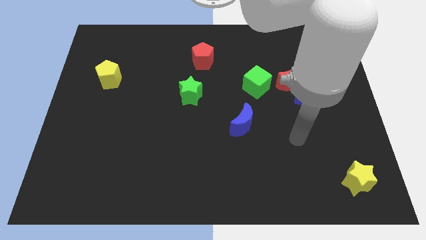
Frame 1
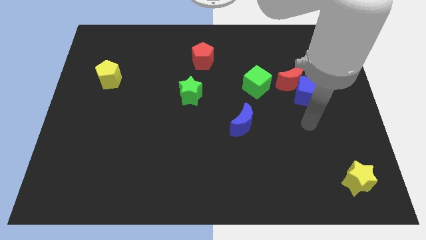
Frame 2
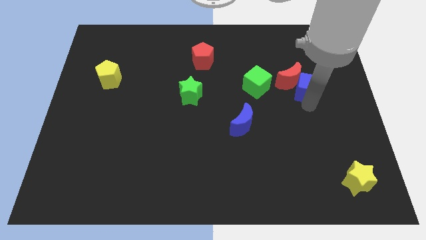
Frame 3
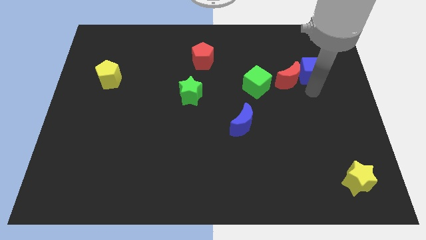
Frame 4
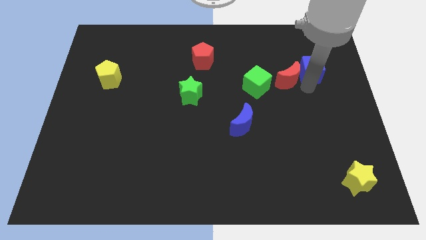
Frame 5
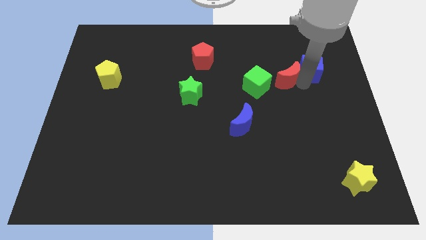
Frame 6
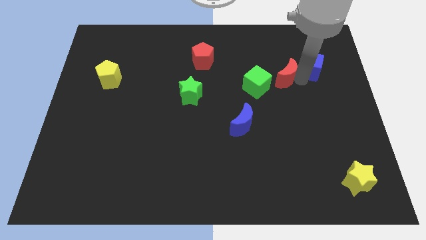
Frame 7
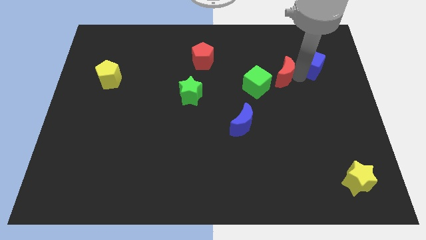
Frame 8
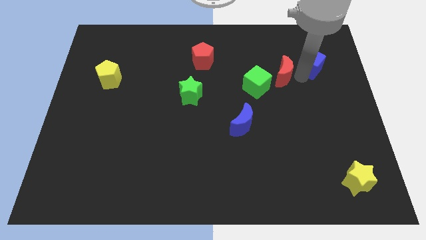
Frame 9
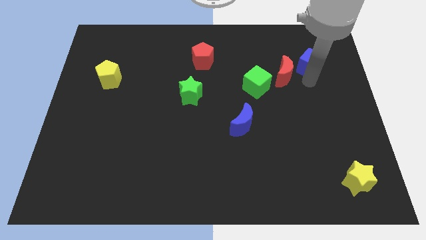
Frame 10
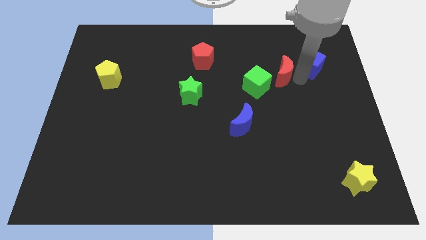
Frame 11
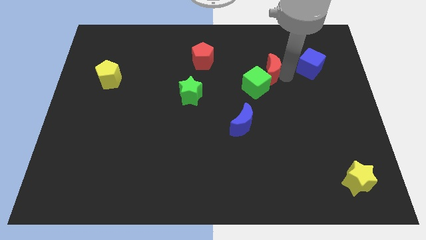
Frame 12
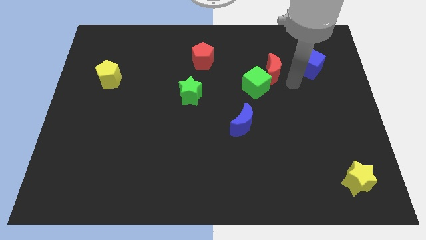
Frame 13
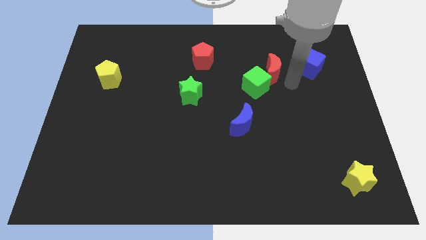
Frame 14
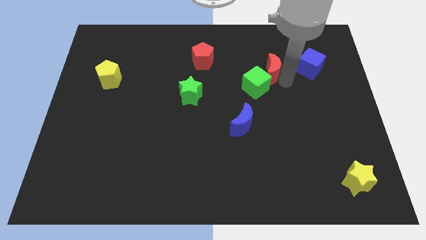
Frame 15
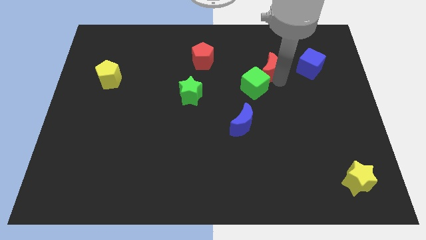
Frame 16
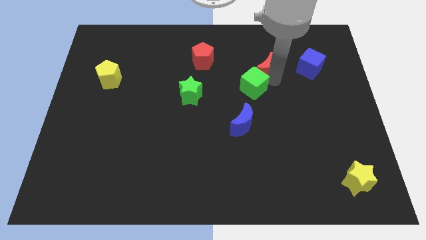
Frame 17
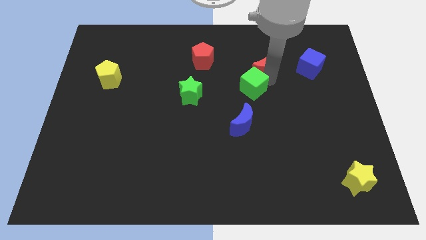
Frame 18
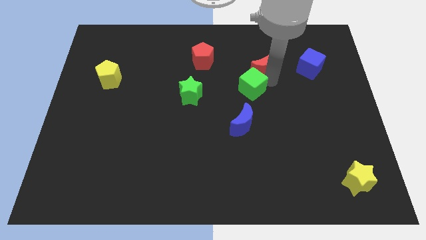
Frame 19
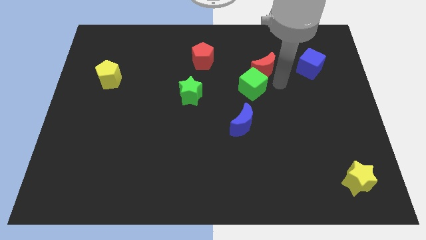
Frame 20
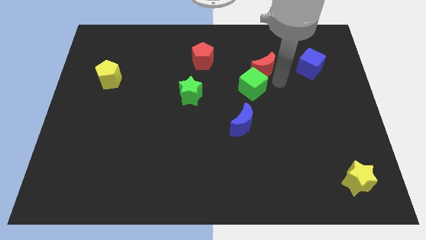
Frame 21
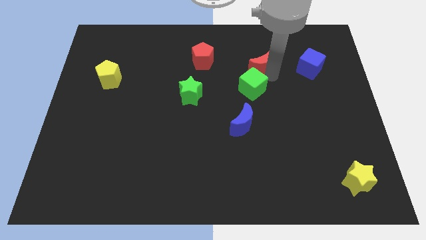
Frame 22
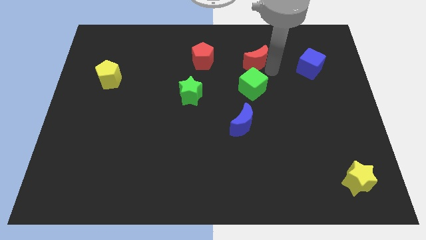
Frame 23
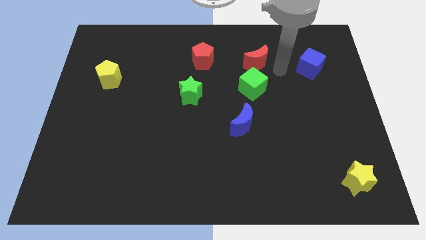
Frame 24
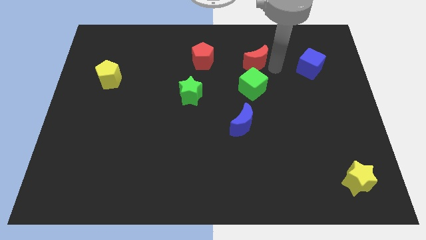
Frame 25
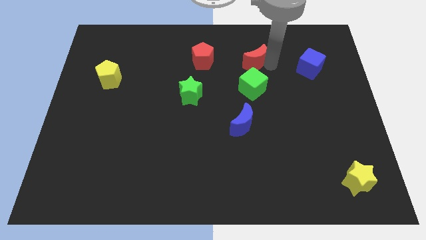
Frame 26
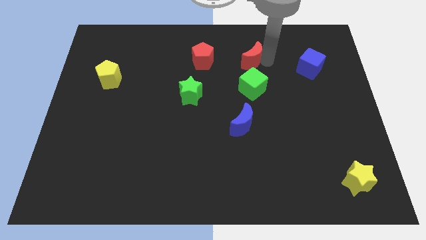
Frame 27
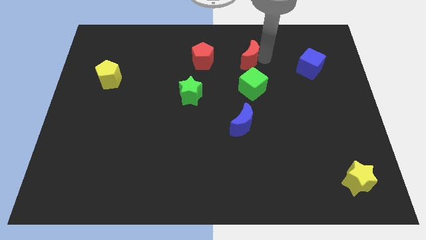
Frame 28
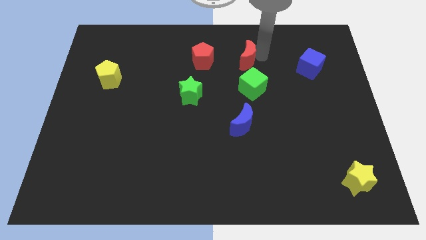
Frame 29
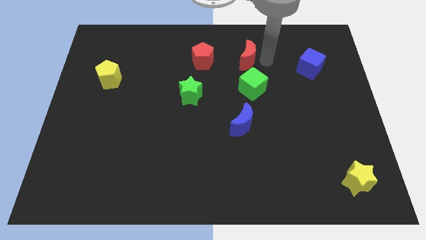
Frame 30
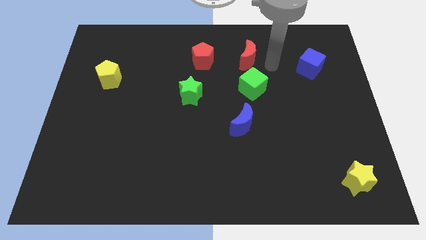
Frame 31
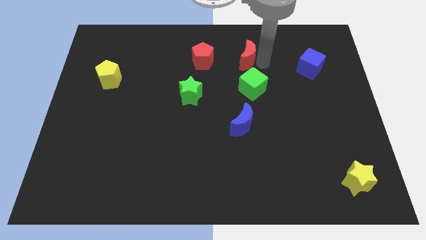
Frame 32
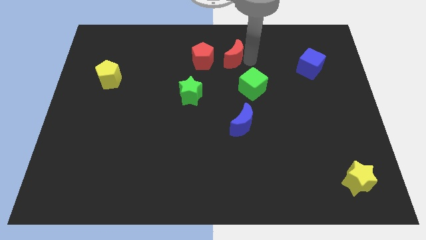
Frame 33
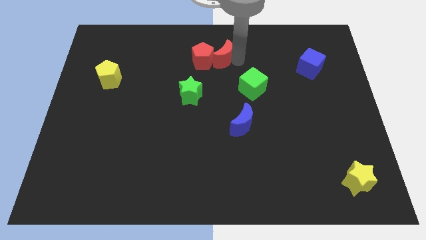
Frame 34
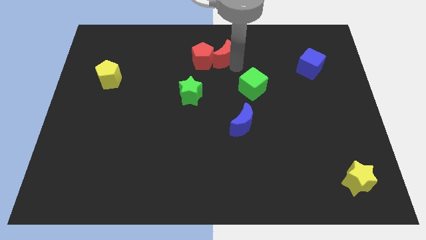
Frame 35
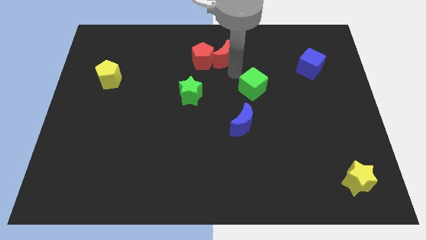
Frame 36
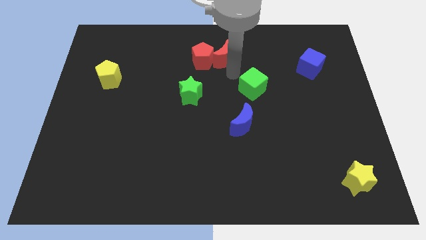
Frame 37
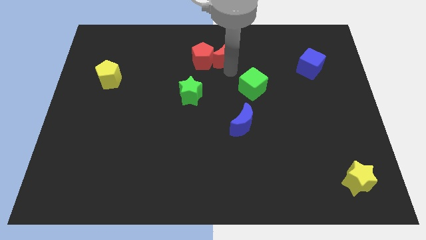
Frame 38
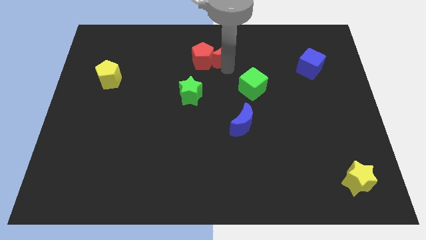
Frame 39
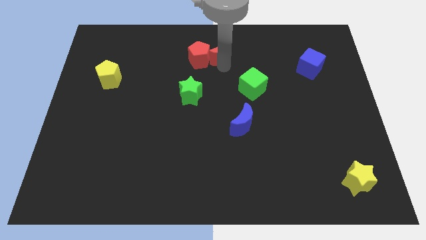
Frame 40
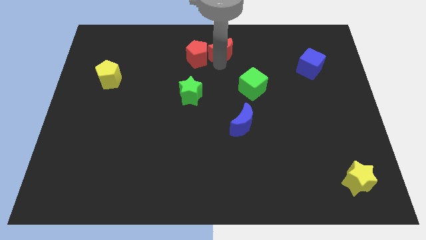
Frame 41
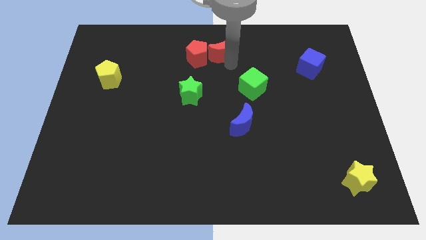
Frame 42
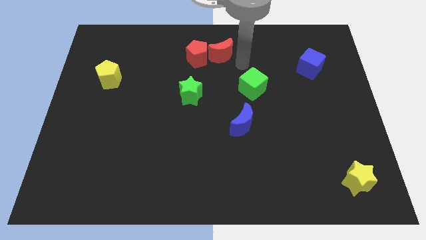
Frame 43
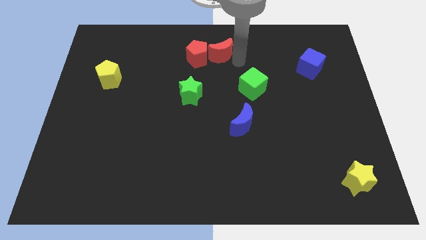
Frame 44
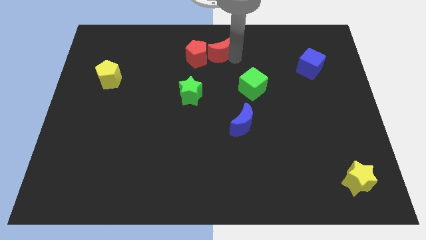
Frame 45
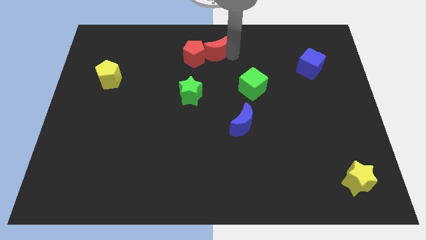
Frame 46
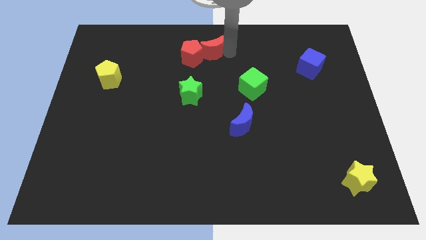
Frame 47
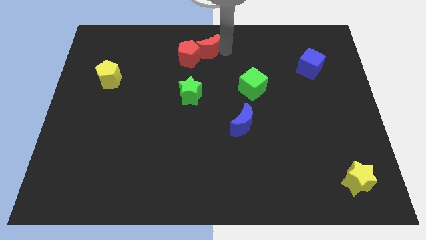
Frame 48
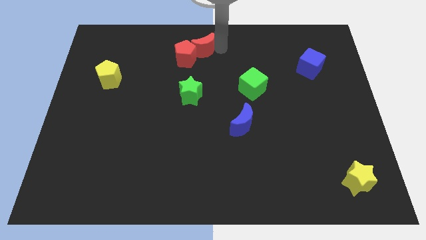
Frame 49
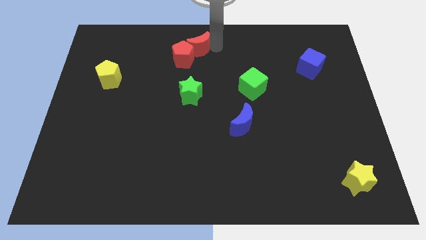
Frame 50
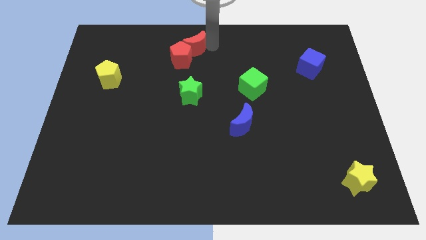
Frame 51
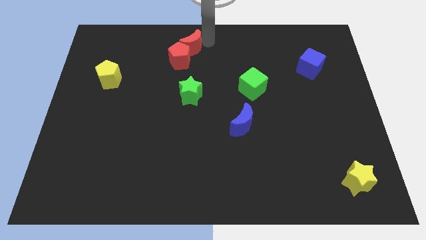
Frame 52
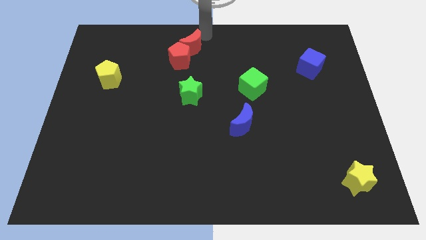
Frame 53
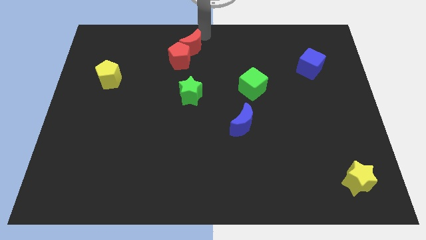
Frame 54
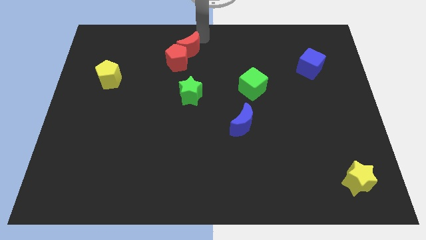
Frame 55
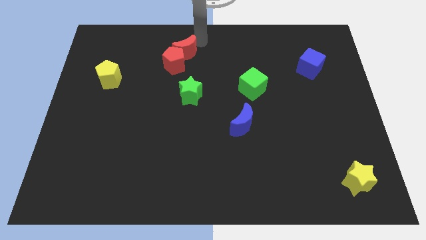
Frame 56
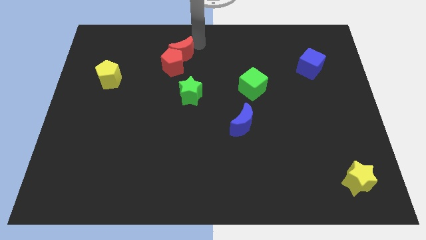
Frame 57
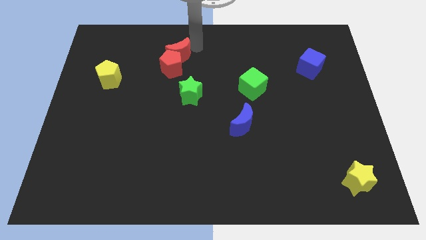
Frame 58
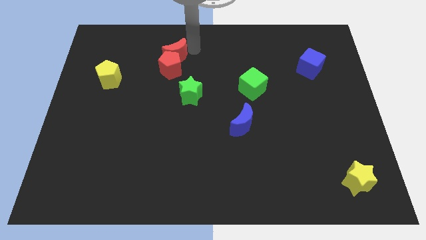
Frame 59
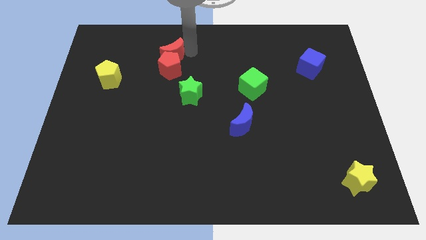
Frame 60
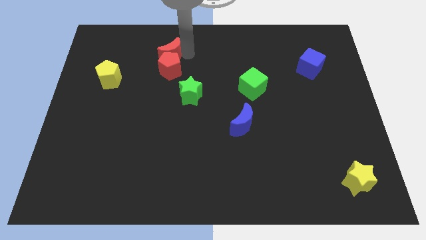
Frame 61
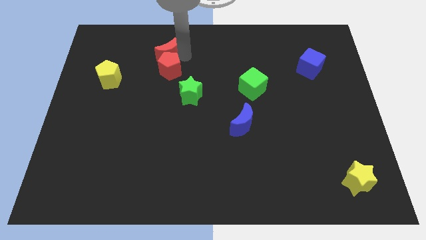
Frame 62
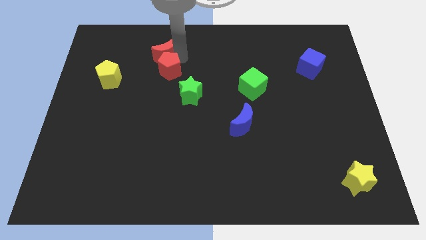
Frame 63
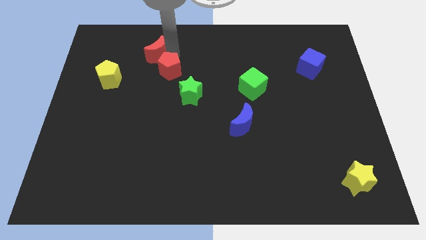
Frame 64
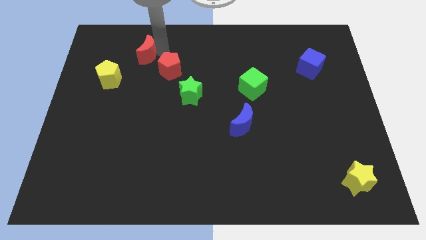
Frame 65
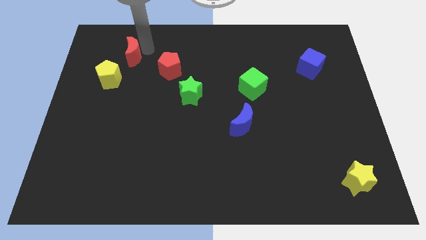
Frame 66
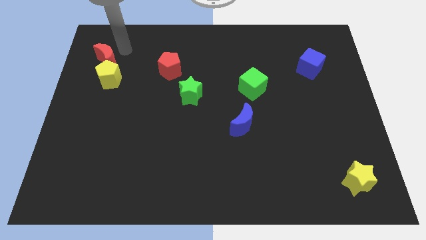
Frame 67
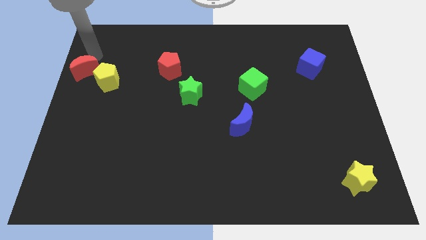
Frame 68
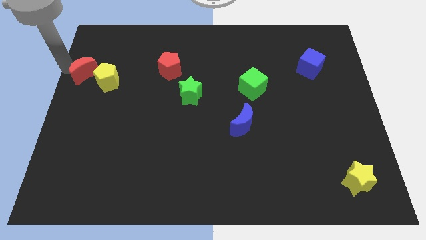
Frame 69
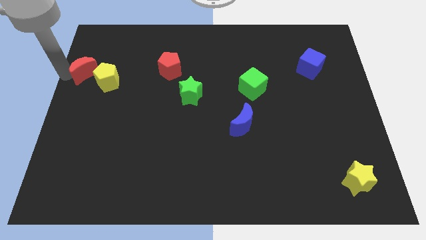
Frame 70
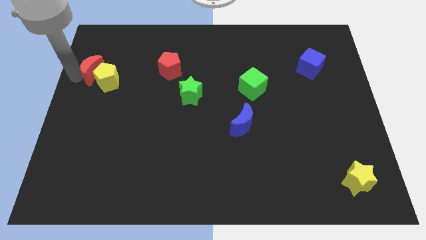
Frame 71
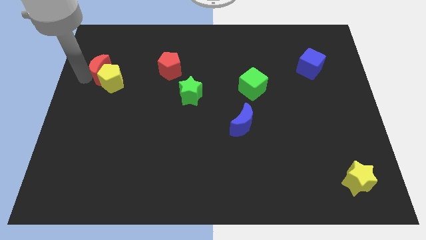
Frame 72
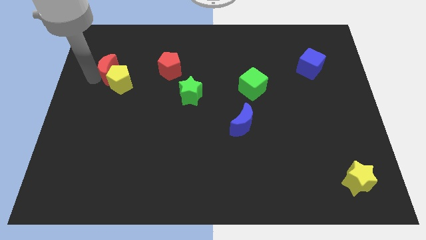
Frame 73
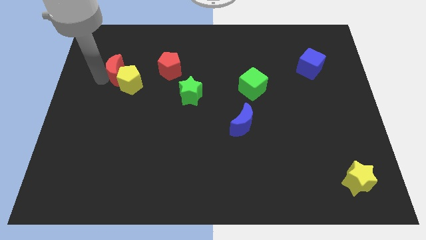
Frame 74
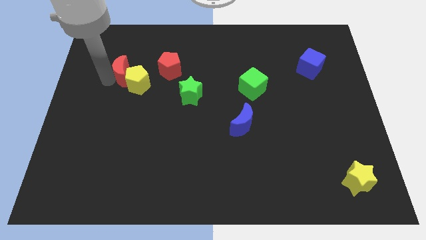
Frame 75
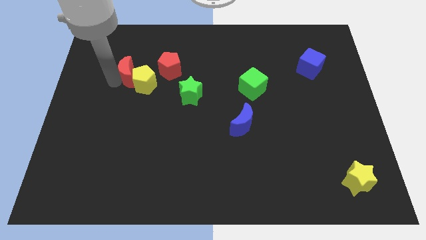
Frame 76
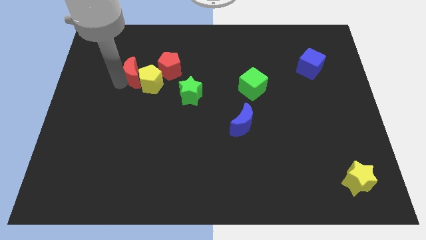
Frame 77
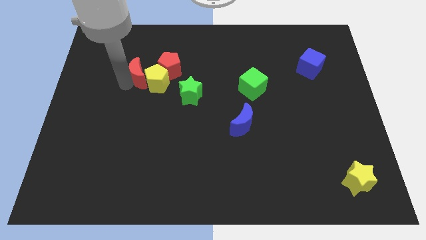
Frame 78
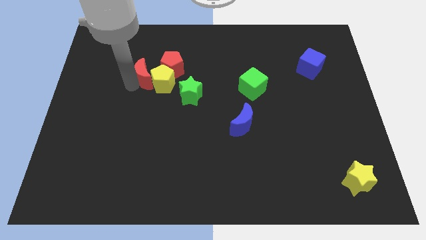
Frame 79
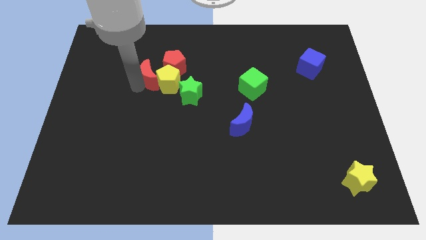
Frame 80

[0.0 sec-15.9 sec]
push the red moon to the top left of the green star
